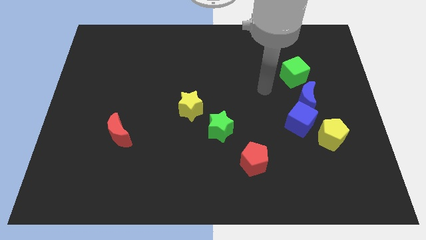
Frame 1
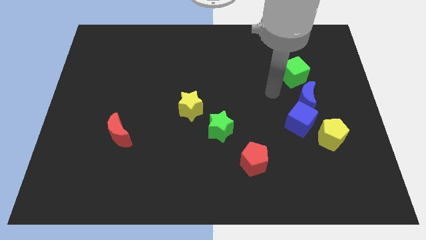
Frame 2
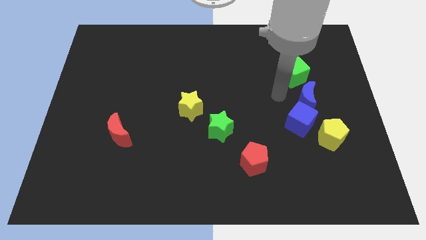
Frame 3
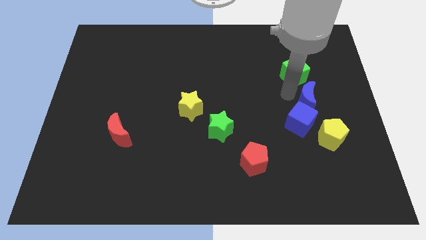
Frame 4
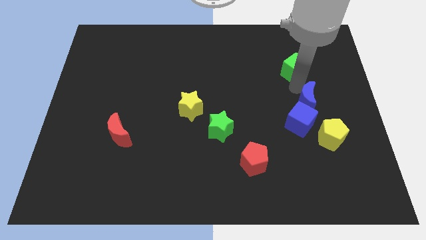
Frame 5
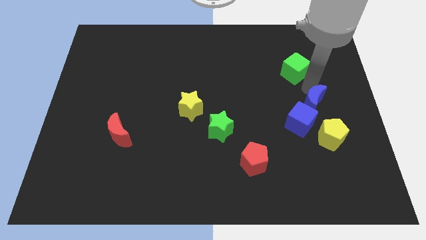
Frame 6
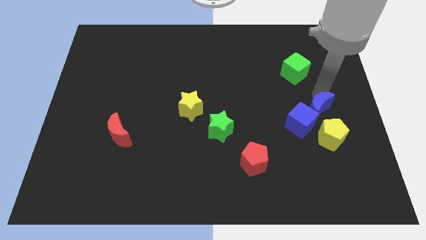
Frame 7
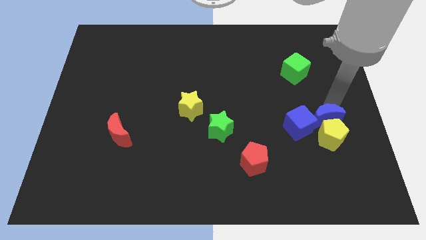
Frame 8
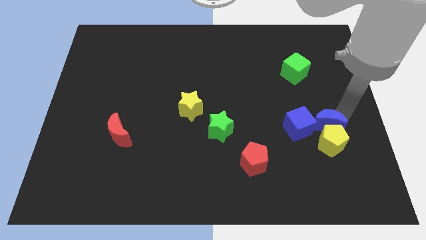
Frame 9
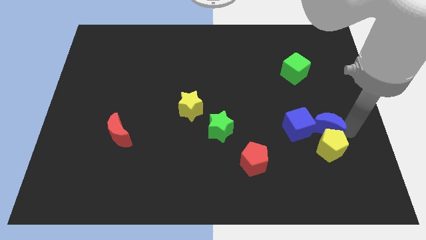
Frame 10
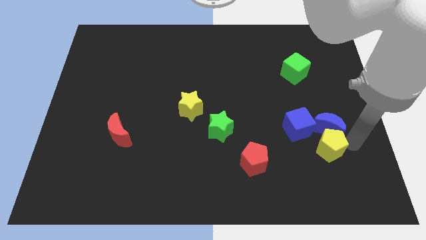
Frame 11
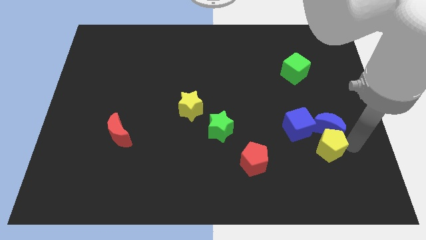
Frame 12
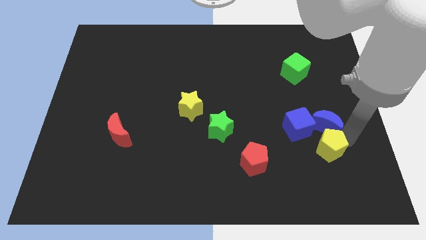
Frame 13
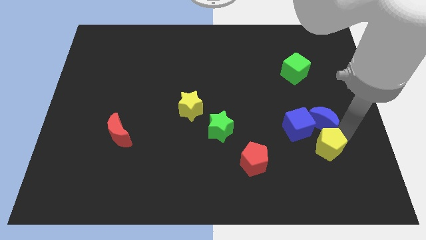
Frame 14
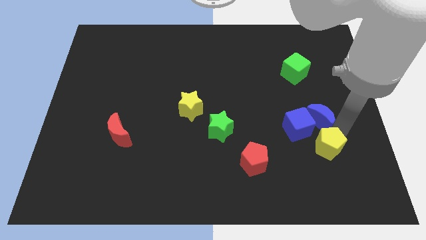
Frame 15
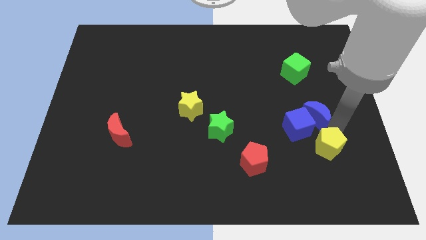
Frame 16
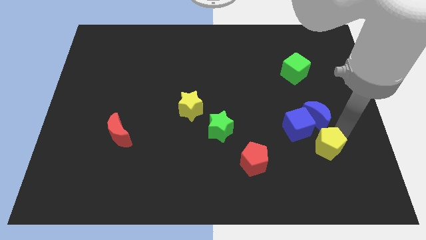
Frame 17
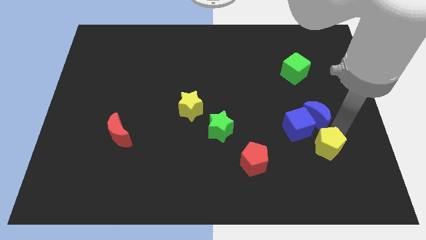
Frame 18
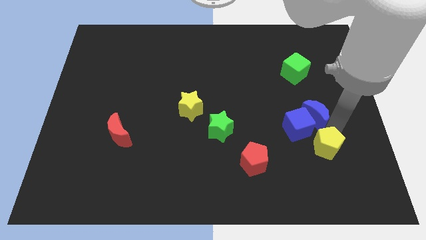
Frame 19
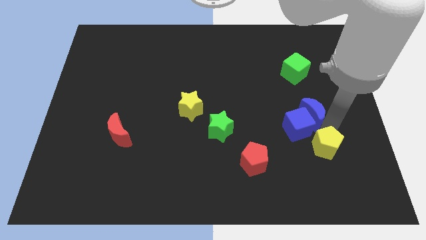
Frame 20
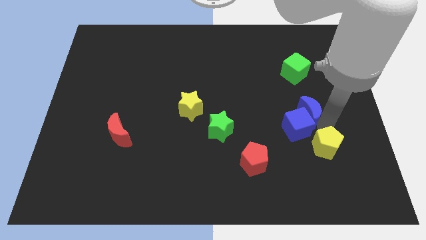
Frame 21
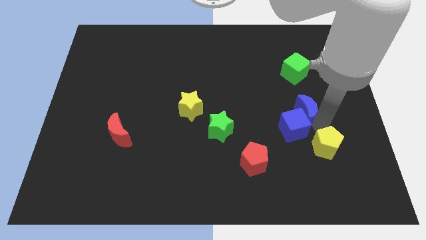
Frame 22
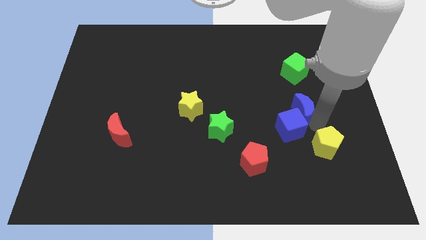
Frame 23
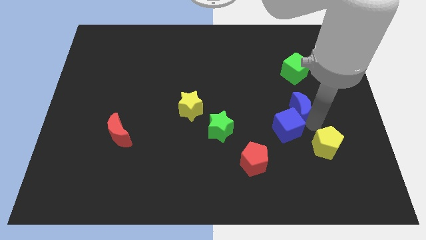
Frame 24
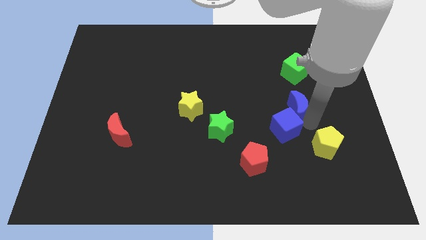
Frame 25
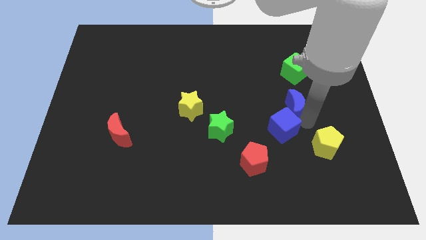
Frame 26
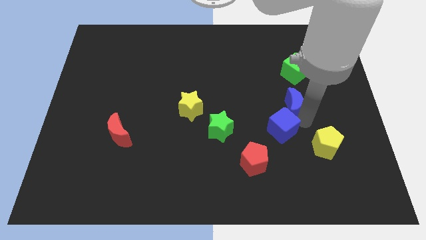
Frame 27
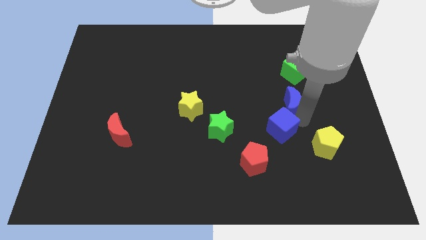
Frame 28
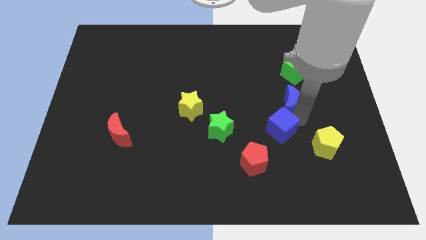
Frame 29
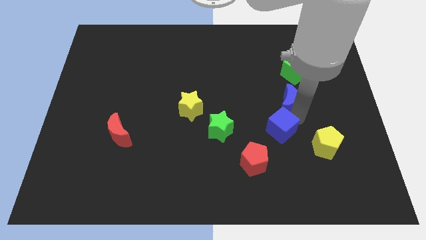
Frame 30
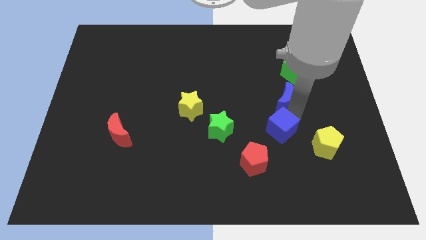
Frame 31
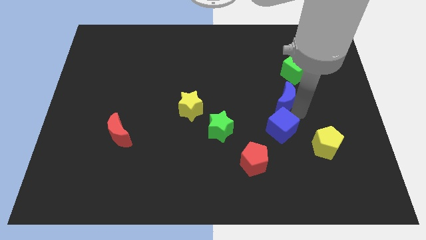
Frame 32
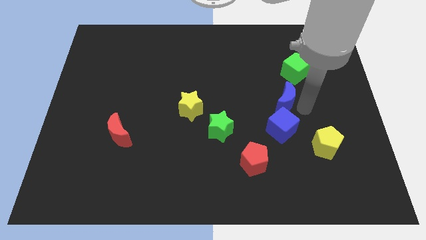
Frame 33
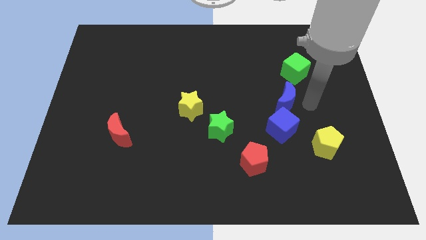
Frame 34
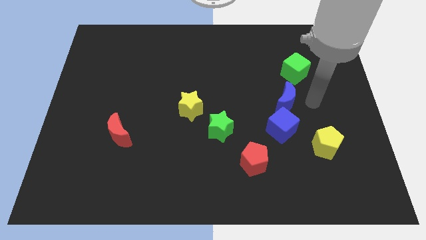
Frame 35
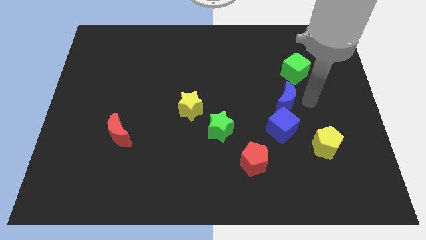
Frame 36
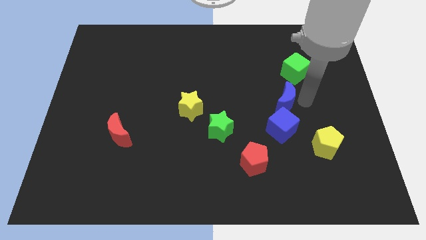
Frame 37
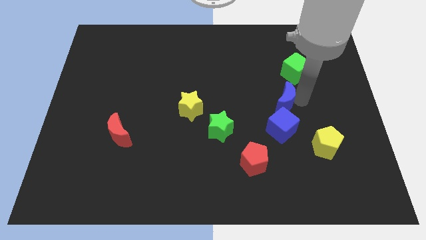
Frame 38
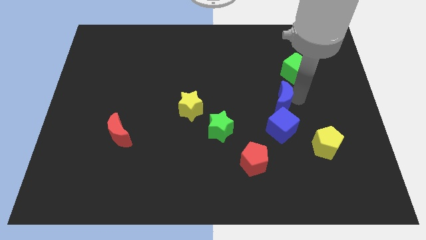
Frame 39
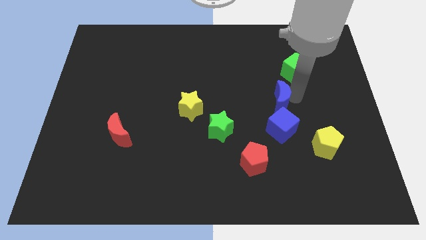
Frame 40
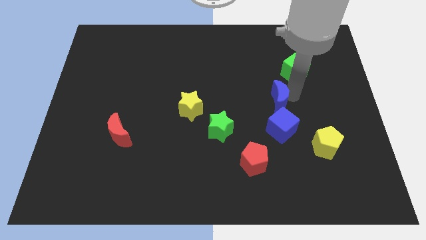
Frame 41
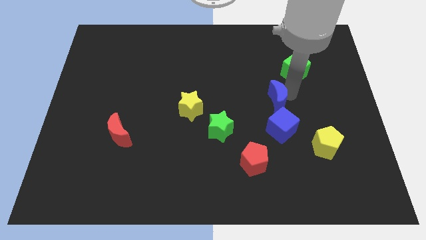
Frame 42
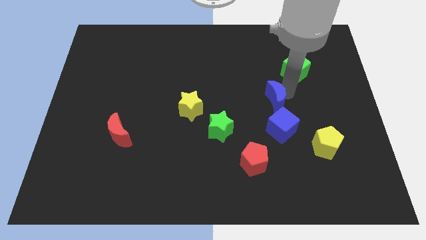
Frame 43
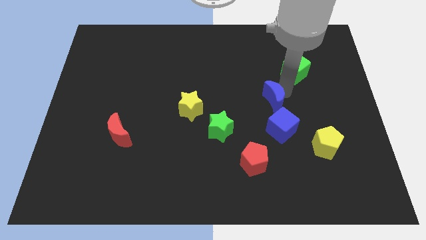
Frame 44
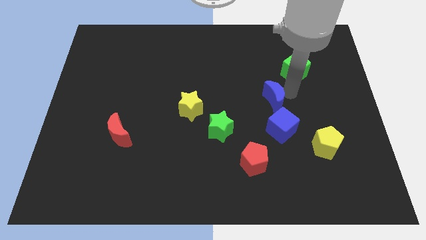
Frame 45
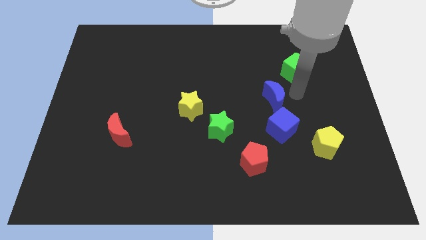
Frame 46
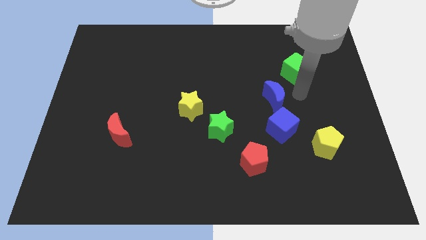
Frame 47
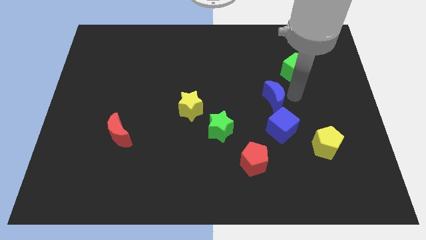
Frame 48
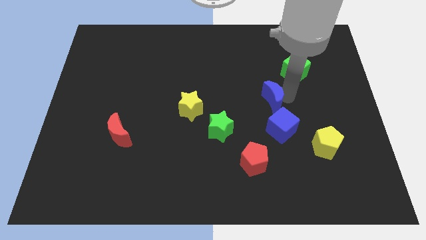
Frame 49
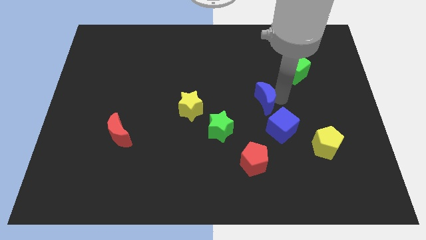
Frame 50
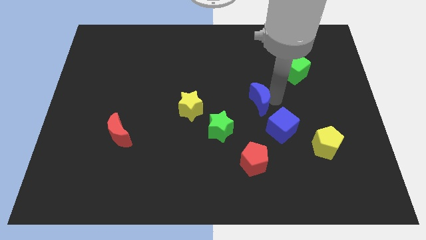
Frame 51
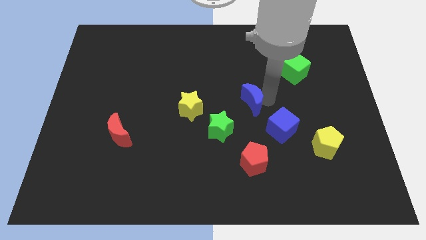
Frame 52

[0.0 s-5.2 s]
move the blue moon just right of the yellow star

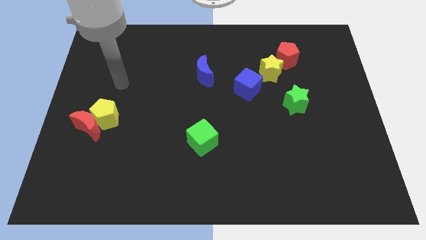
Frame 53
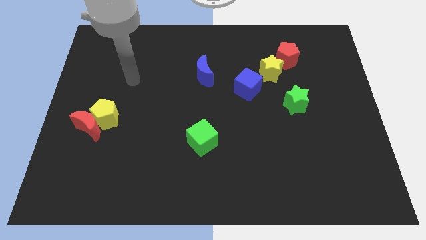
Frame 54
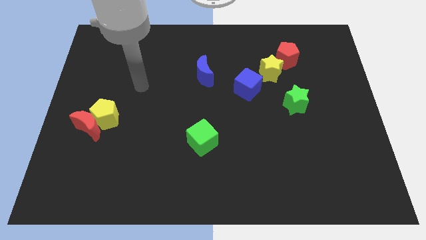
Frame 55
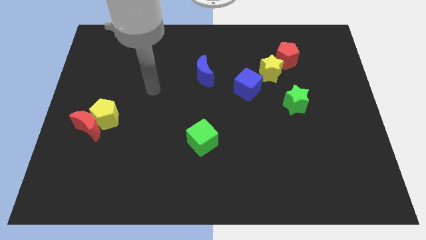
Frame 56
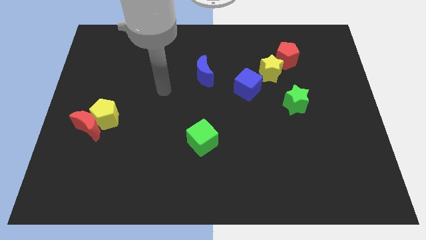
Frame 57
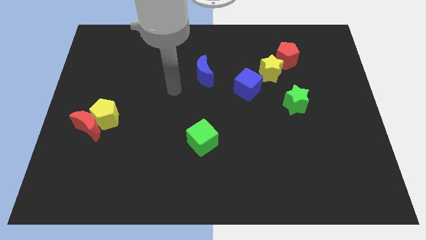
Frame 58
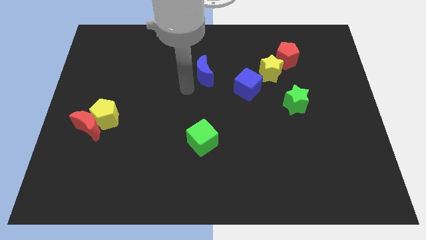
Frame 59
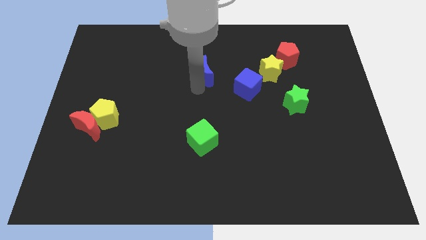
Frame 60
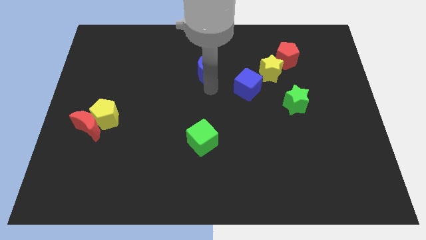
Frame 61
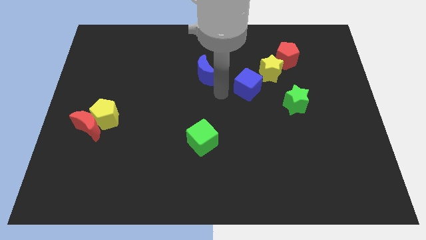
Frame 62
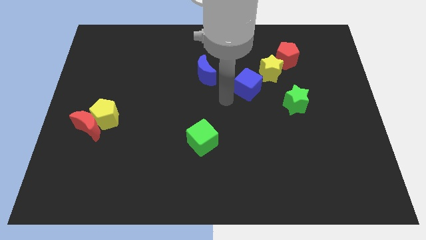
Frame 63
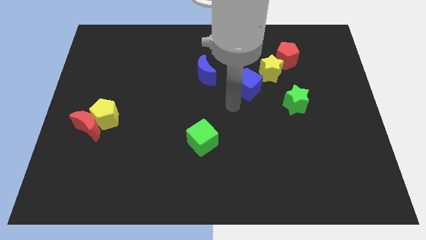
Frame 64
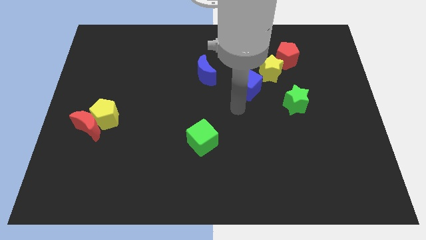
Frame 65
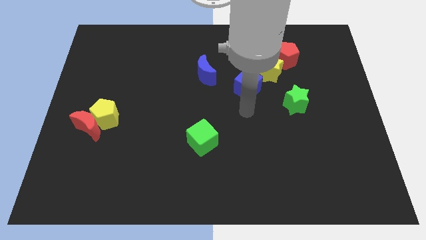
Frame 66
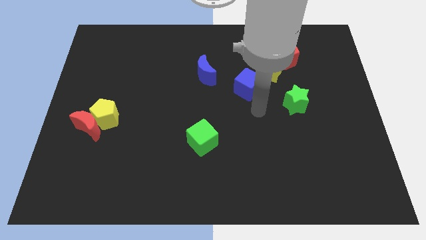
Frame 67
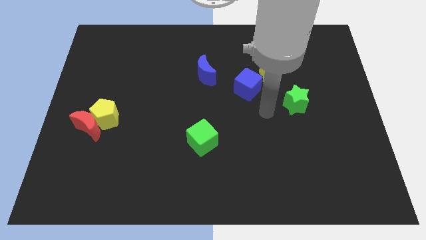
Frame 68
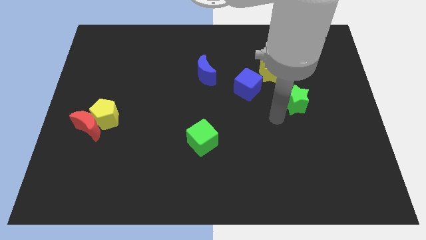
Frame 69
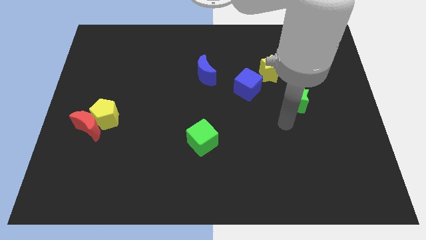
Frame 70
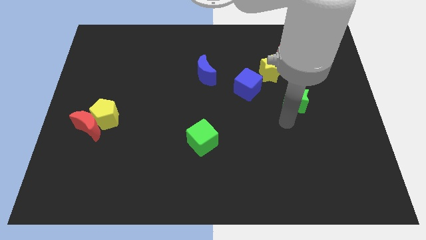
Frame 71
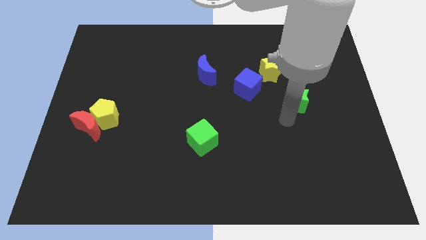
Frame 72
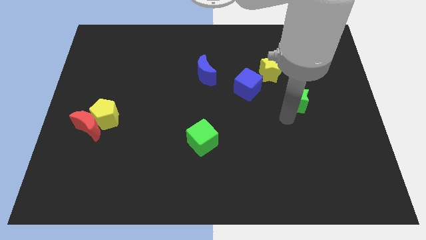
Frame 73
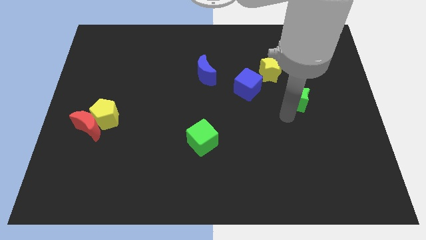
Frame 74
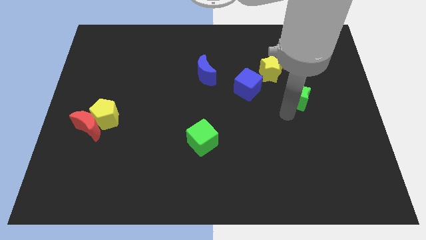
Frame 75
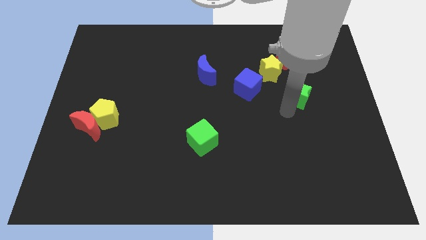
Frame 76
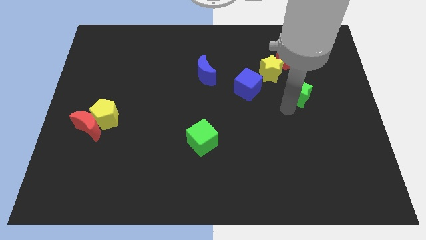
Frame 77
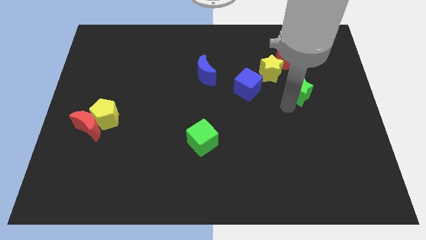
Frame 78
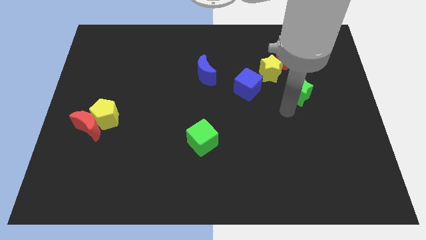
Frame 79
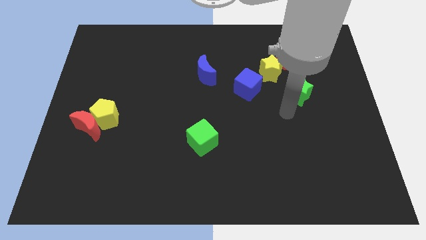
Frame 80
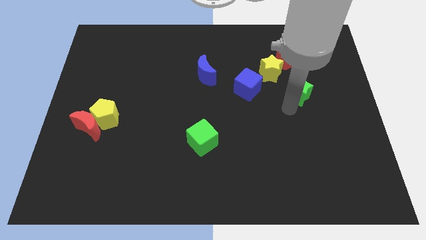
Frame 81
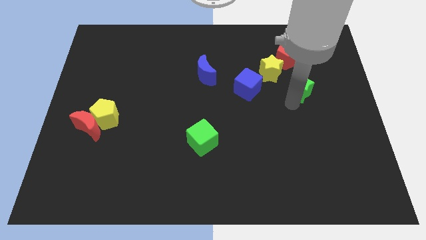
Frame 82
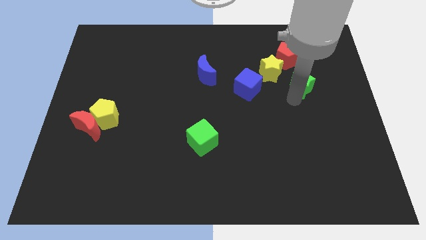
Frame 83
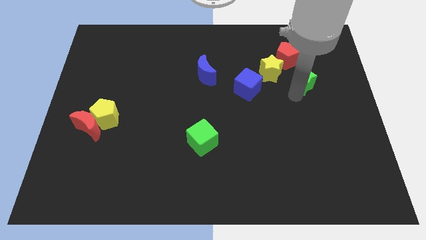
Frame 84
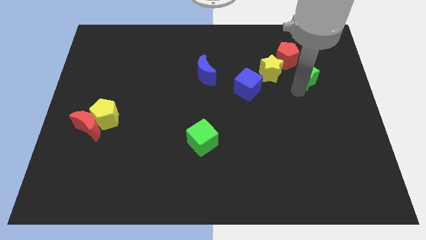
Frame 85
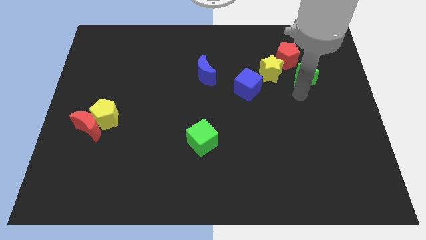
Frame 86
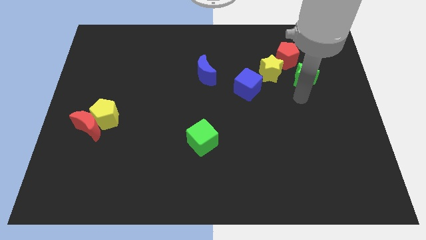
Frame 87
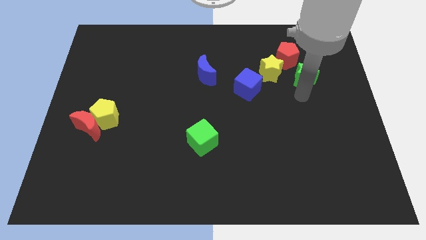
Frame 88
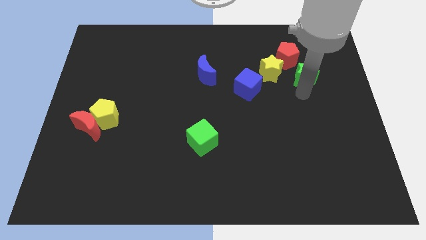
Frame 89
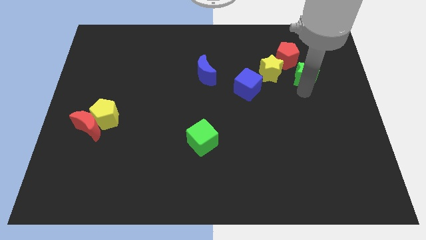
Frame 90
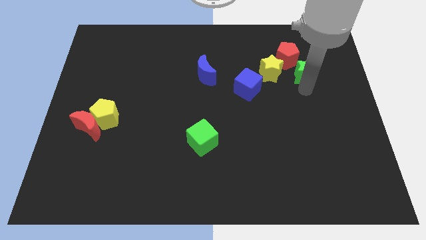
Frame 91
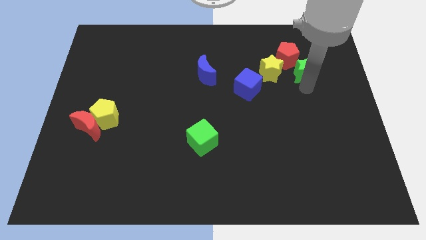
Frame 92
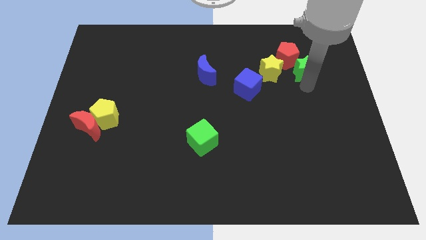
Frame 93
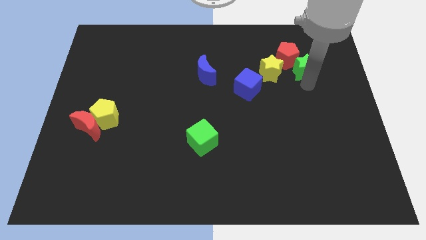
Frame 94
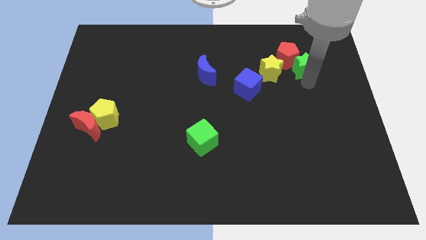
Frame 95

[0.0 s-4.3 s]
move the green star to the top right side of the yellow star
